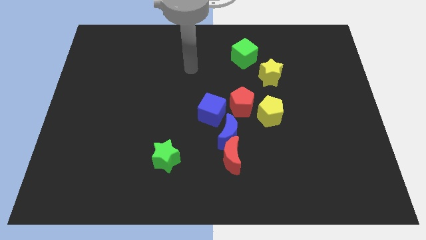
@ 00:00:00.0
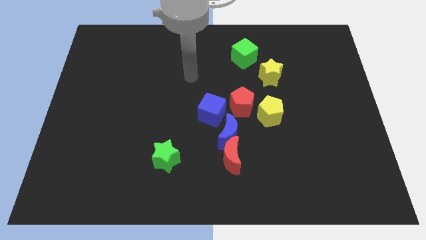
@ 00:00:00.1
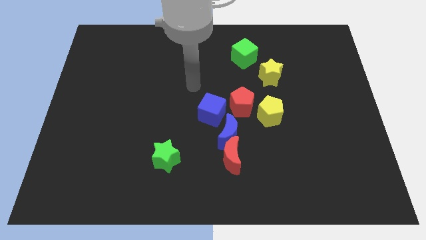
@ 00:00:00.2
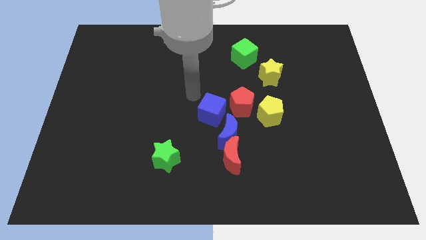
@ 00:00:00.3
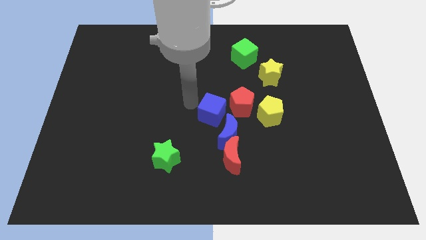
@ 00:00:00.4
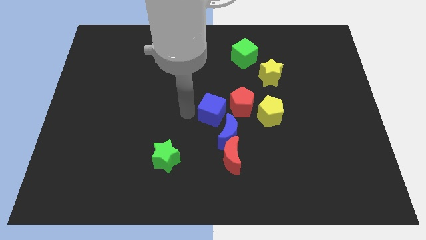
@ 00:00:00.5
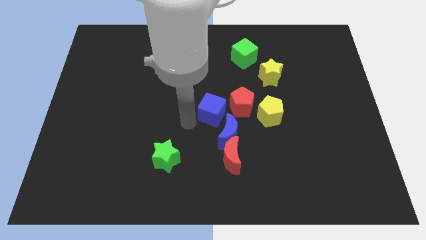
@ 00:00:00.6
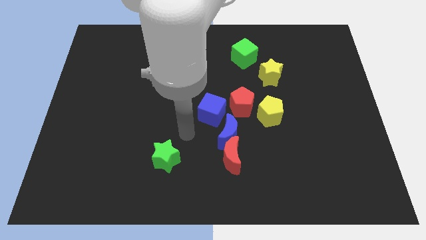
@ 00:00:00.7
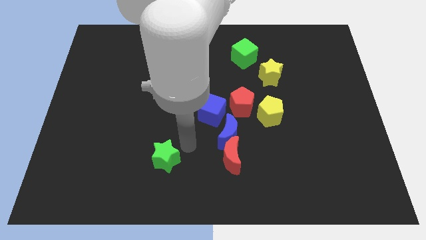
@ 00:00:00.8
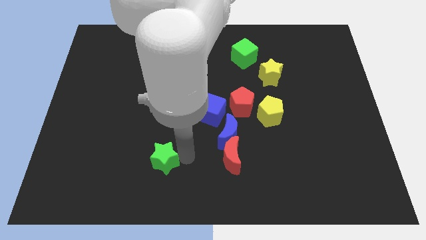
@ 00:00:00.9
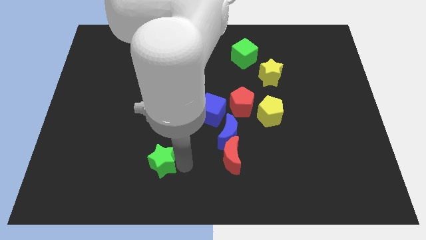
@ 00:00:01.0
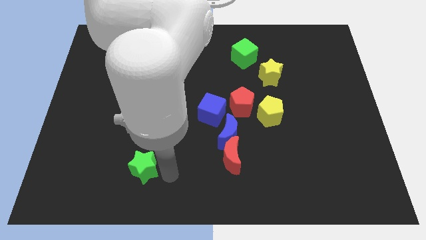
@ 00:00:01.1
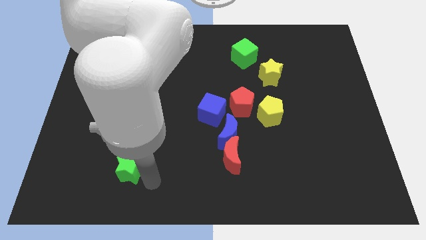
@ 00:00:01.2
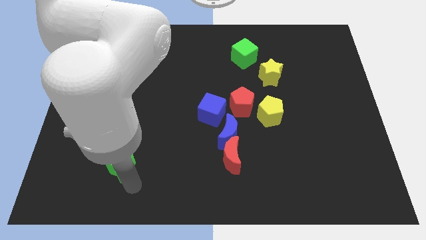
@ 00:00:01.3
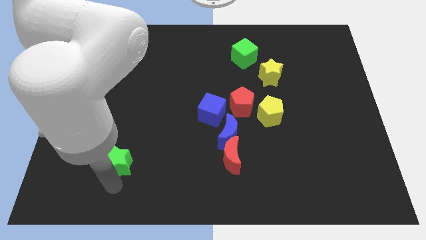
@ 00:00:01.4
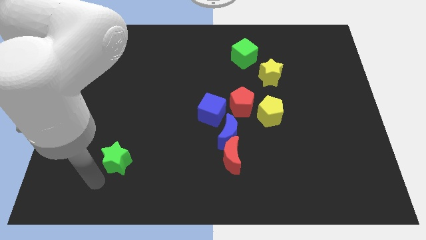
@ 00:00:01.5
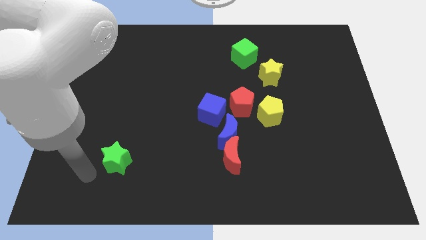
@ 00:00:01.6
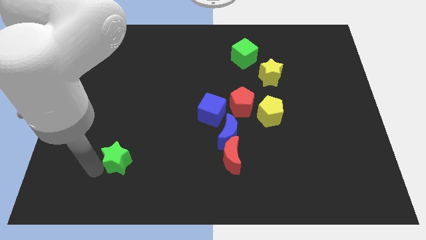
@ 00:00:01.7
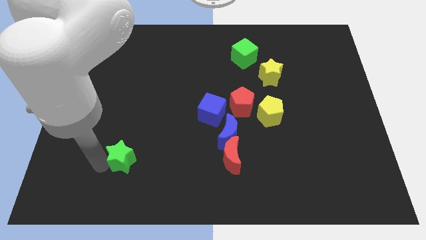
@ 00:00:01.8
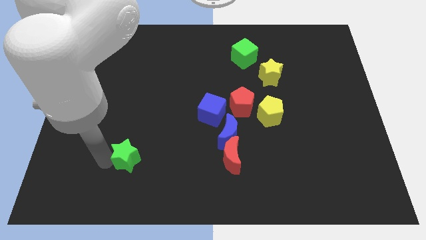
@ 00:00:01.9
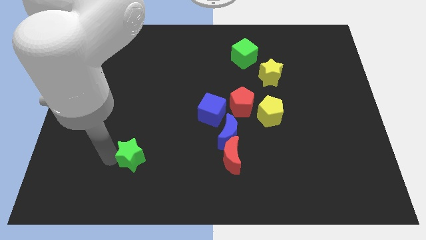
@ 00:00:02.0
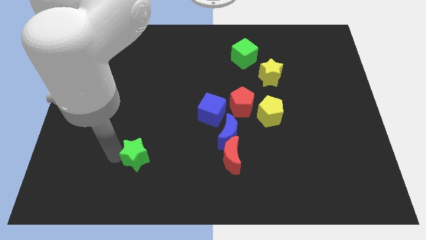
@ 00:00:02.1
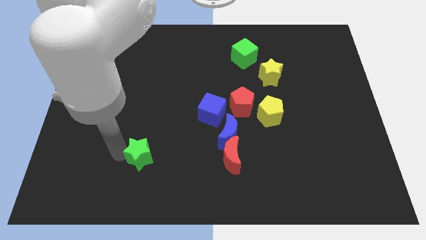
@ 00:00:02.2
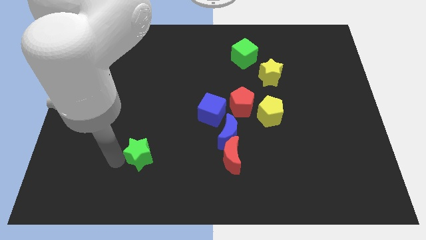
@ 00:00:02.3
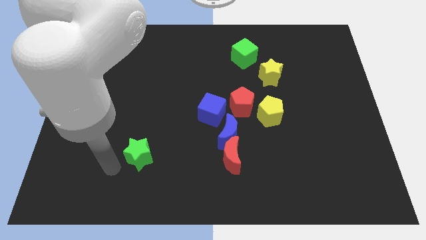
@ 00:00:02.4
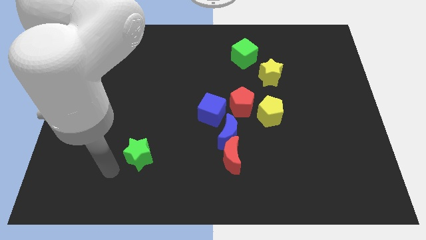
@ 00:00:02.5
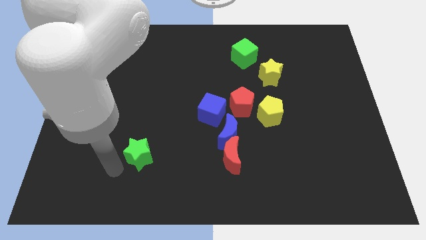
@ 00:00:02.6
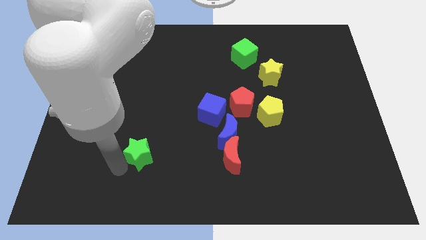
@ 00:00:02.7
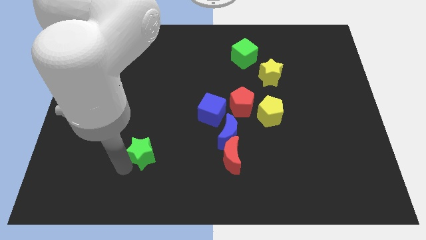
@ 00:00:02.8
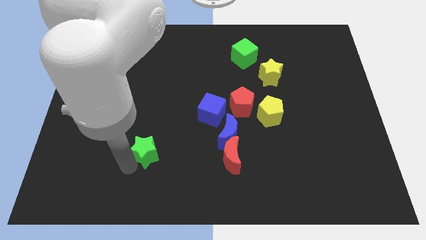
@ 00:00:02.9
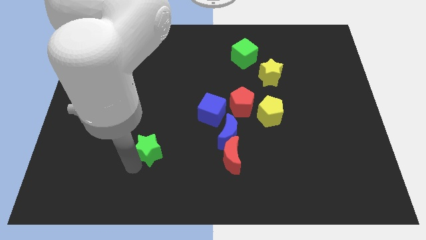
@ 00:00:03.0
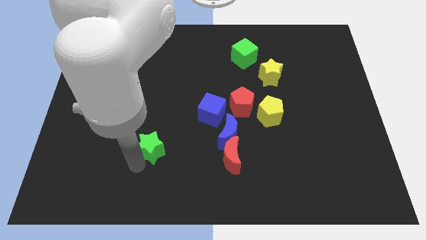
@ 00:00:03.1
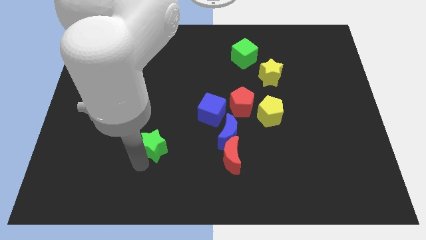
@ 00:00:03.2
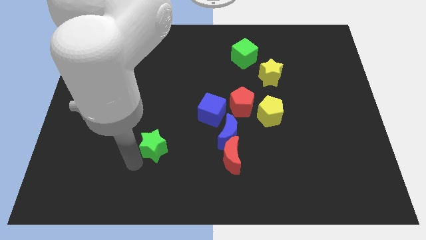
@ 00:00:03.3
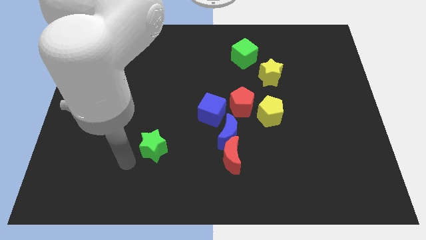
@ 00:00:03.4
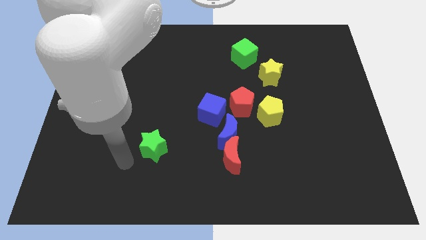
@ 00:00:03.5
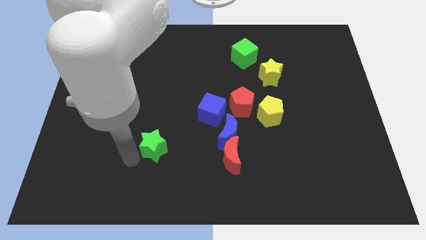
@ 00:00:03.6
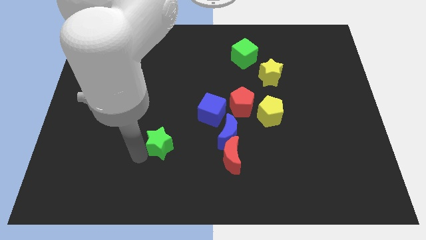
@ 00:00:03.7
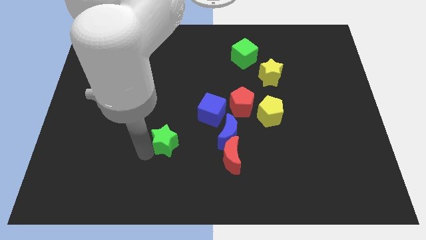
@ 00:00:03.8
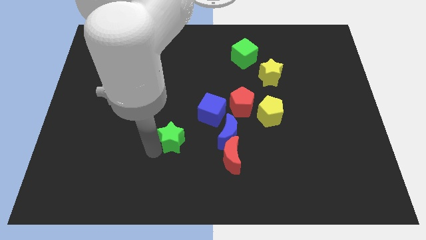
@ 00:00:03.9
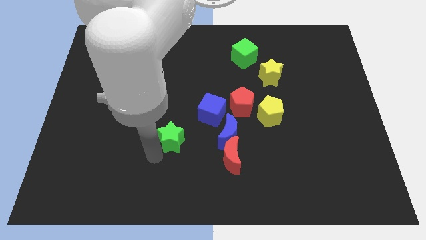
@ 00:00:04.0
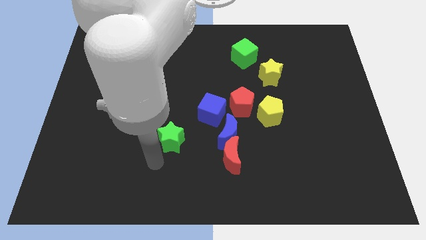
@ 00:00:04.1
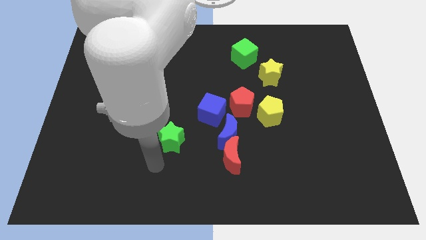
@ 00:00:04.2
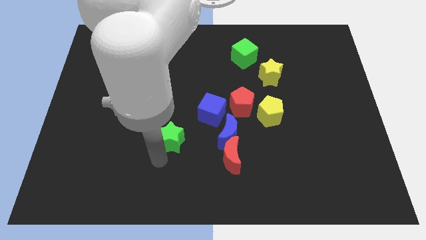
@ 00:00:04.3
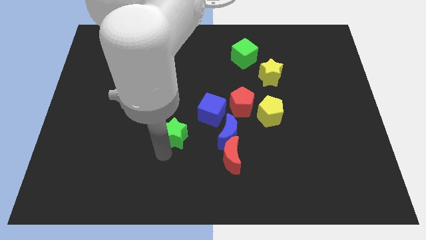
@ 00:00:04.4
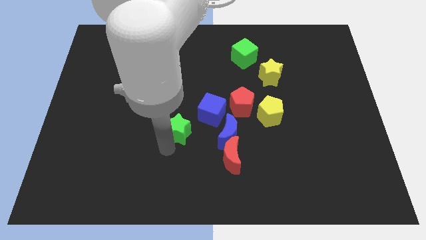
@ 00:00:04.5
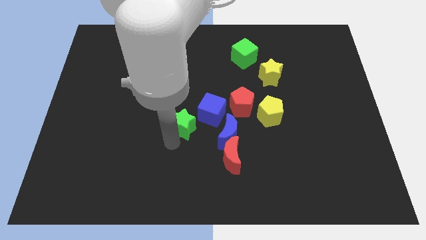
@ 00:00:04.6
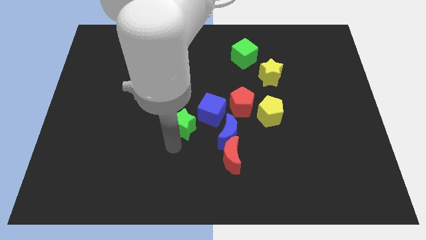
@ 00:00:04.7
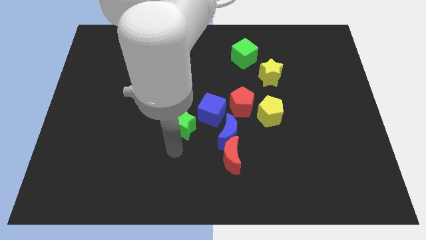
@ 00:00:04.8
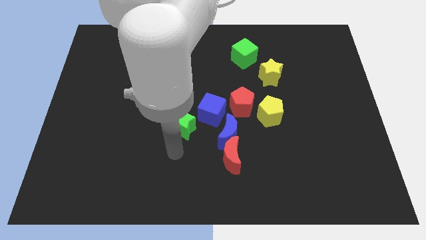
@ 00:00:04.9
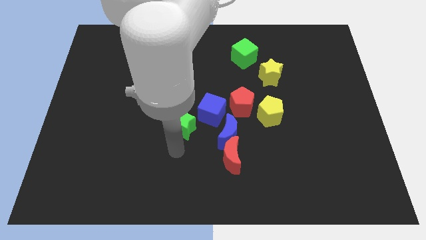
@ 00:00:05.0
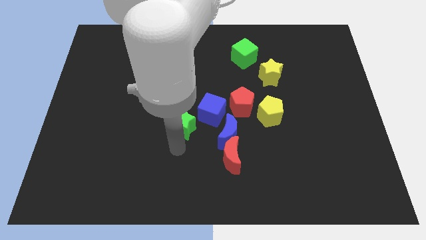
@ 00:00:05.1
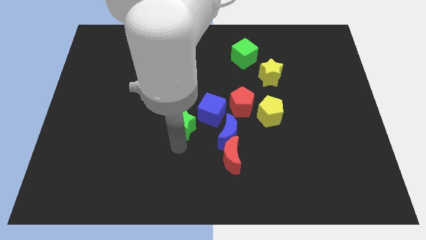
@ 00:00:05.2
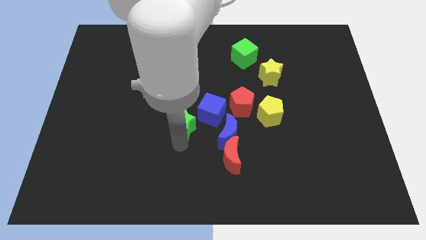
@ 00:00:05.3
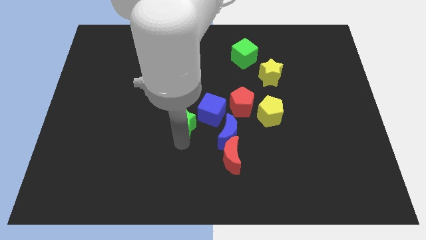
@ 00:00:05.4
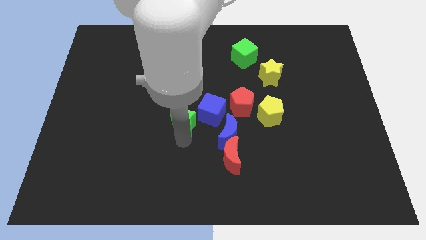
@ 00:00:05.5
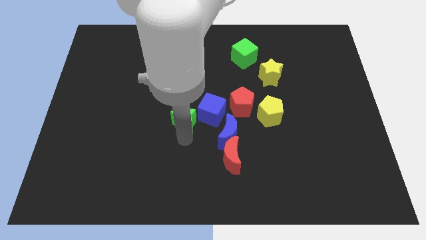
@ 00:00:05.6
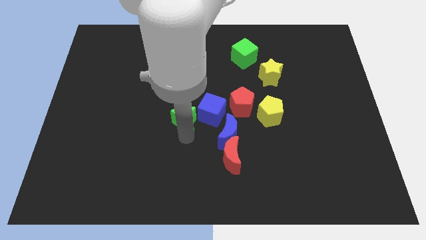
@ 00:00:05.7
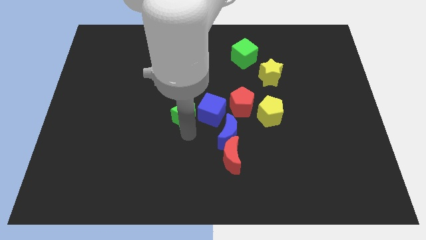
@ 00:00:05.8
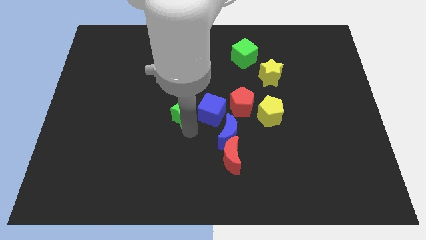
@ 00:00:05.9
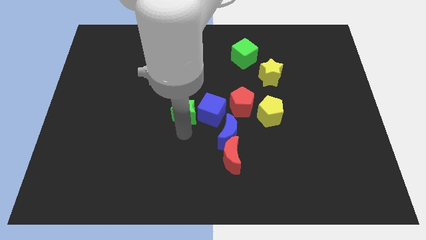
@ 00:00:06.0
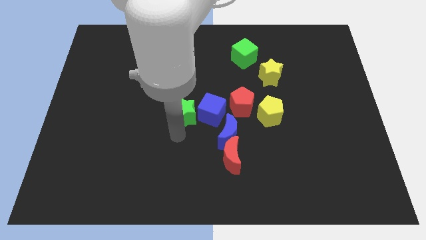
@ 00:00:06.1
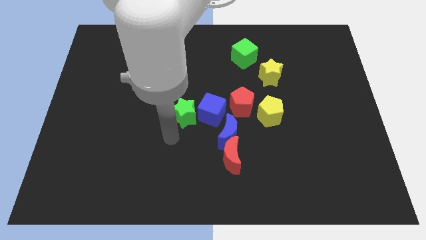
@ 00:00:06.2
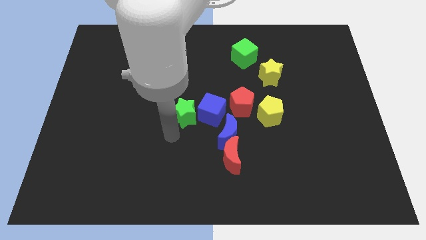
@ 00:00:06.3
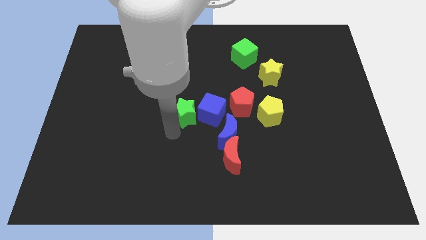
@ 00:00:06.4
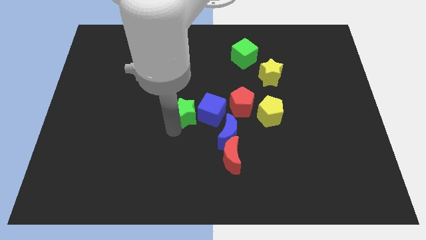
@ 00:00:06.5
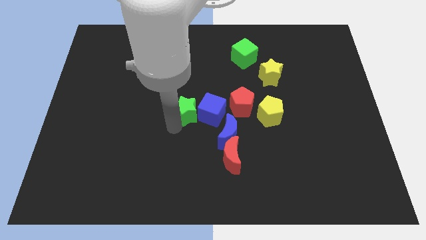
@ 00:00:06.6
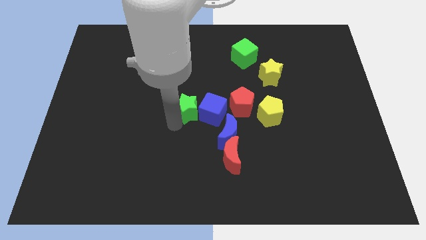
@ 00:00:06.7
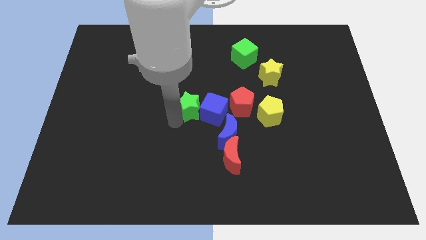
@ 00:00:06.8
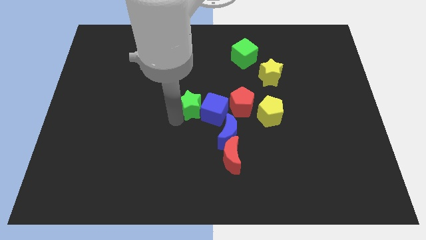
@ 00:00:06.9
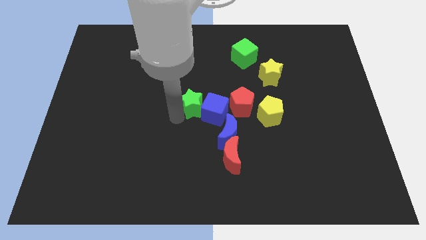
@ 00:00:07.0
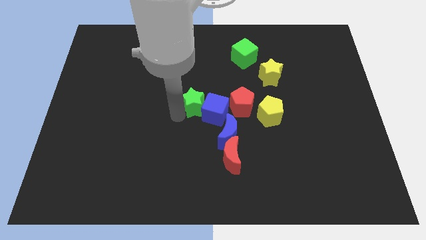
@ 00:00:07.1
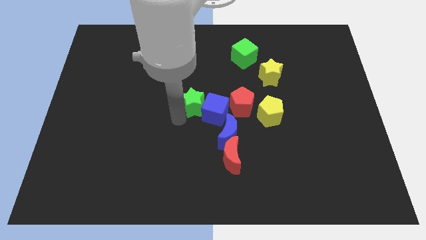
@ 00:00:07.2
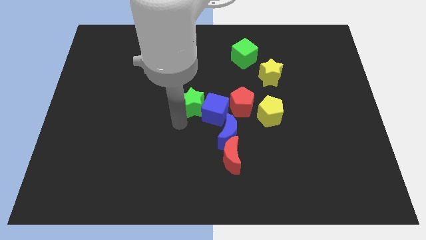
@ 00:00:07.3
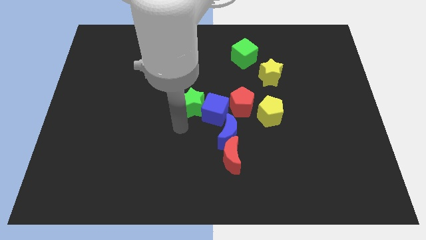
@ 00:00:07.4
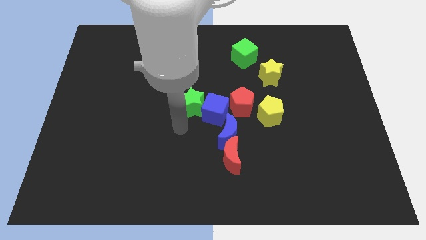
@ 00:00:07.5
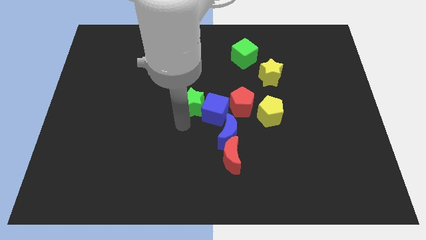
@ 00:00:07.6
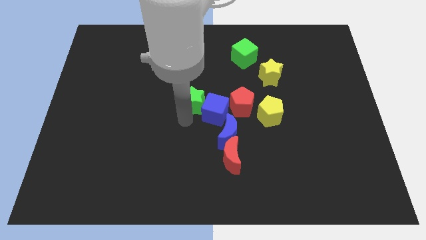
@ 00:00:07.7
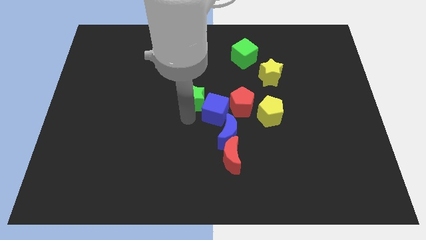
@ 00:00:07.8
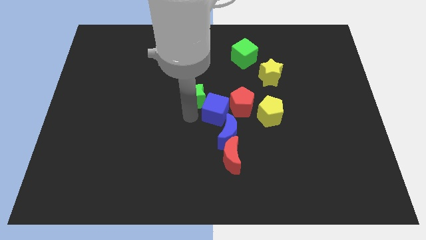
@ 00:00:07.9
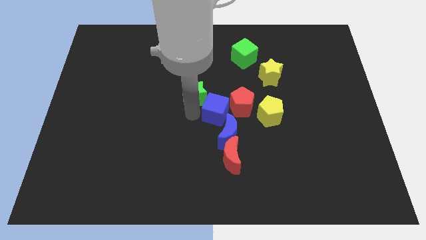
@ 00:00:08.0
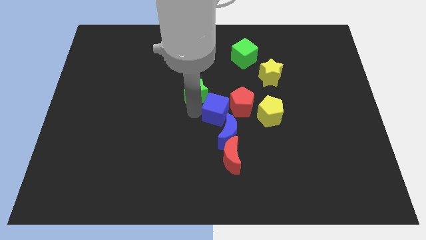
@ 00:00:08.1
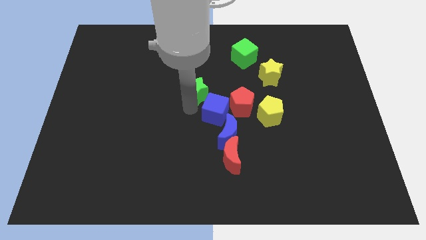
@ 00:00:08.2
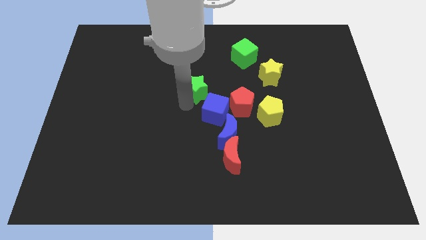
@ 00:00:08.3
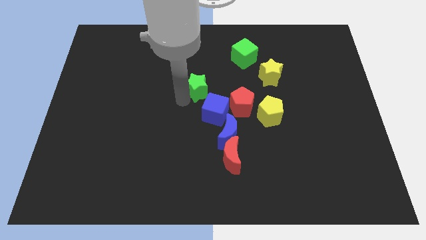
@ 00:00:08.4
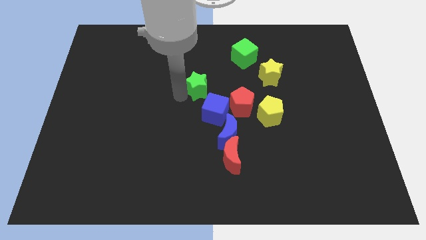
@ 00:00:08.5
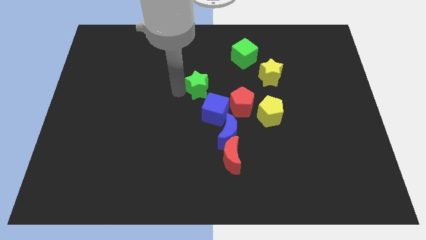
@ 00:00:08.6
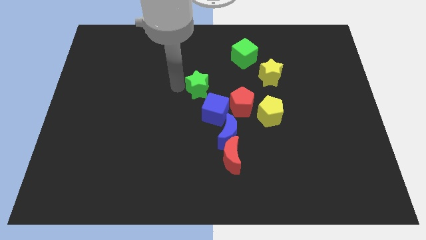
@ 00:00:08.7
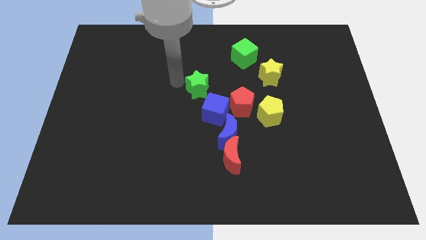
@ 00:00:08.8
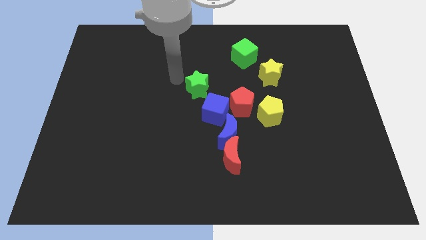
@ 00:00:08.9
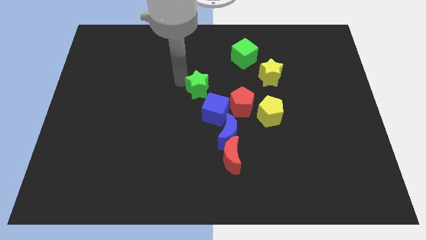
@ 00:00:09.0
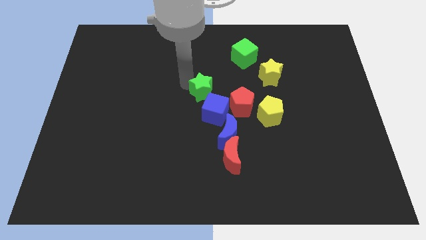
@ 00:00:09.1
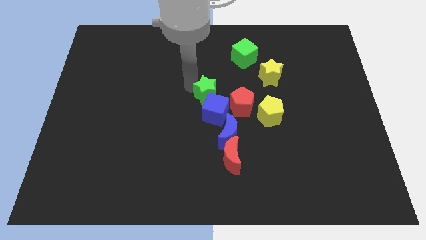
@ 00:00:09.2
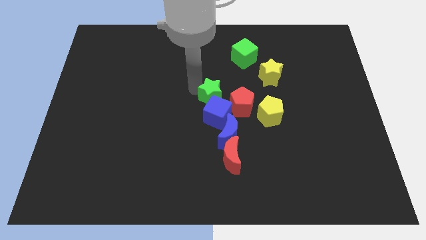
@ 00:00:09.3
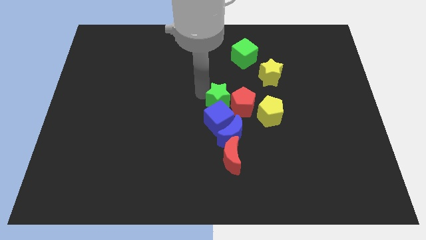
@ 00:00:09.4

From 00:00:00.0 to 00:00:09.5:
put the green star to the red pentagon
